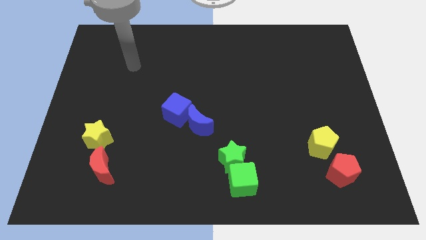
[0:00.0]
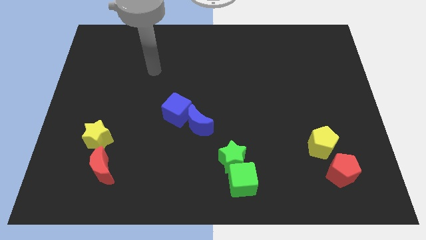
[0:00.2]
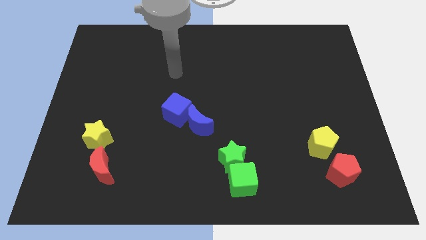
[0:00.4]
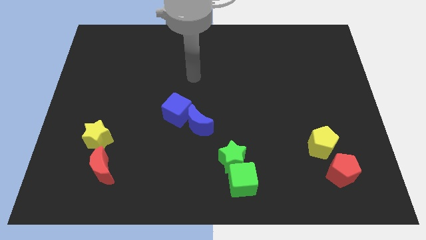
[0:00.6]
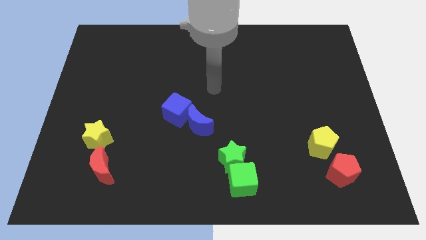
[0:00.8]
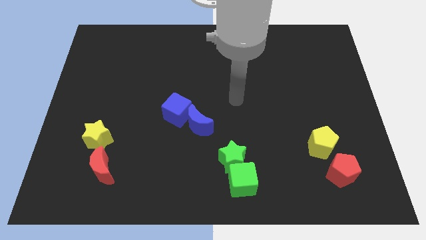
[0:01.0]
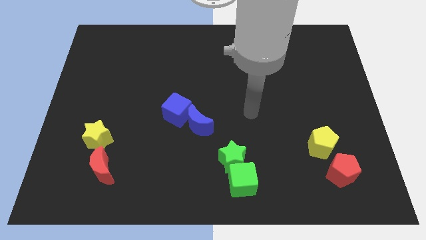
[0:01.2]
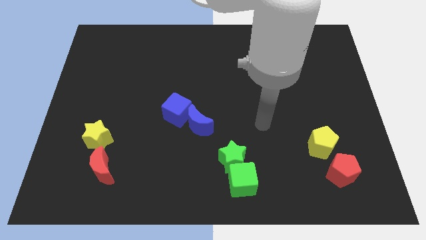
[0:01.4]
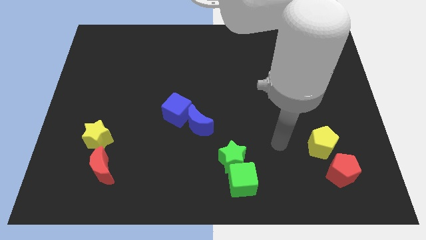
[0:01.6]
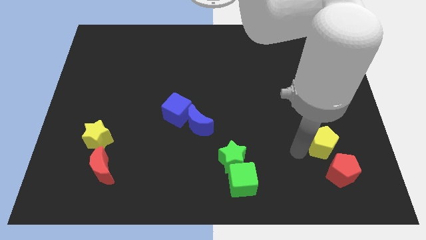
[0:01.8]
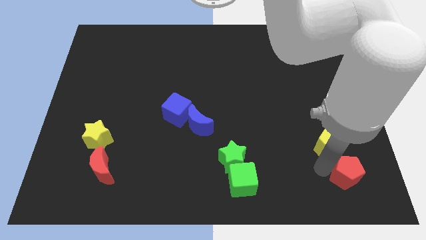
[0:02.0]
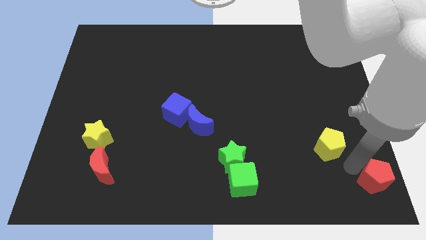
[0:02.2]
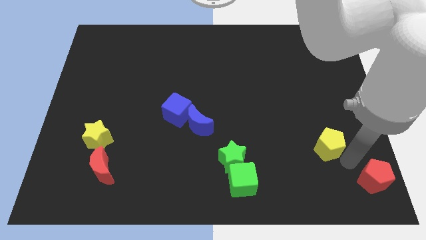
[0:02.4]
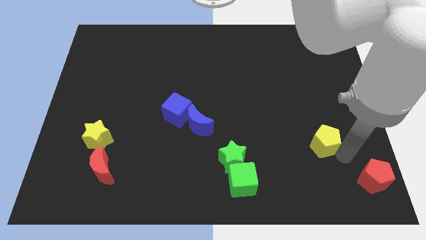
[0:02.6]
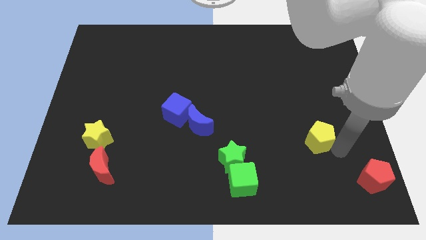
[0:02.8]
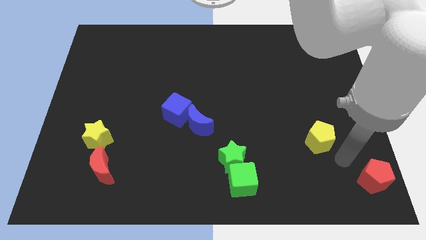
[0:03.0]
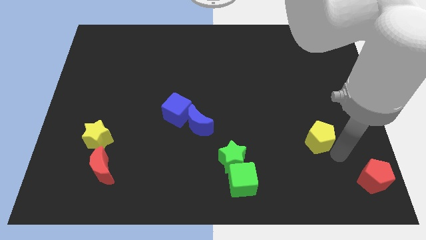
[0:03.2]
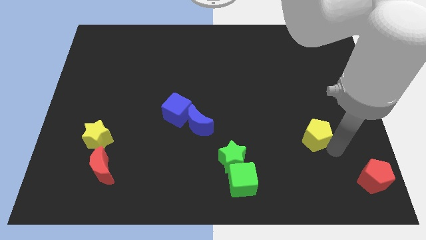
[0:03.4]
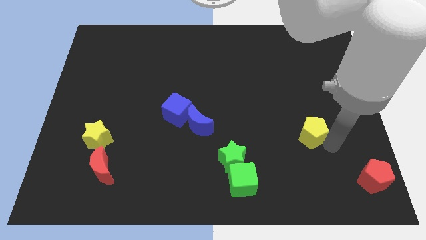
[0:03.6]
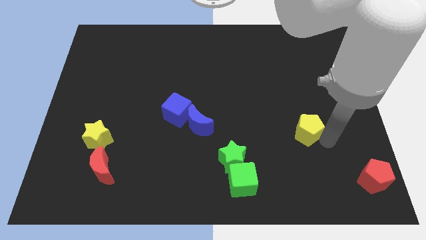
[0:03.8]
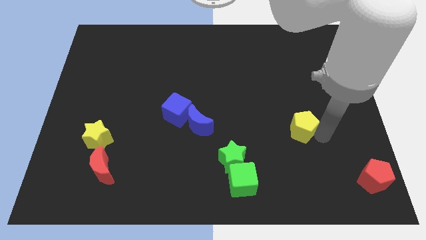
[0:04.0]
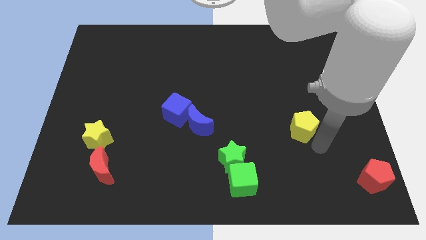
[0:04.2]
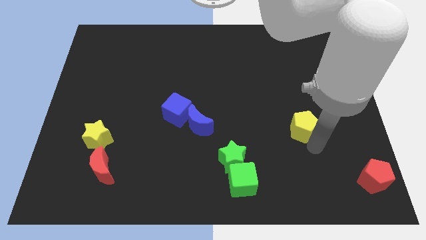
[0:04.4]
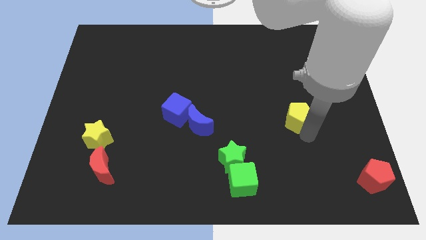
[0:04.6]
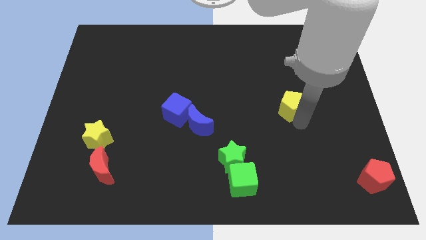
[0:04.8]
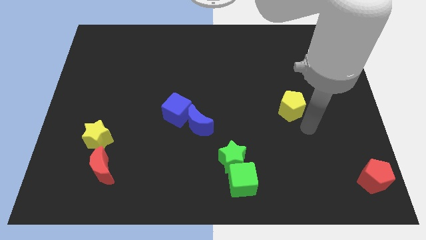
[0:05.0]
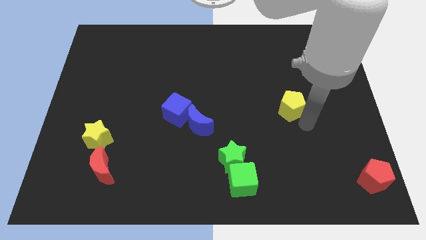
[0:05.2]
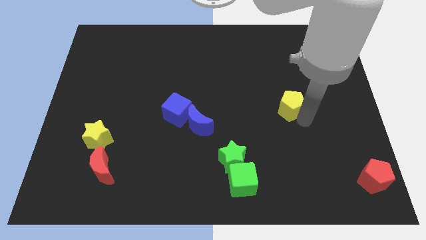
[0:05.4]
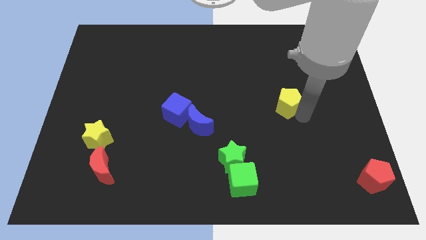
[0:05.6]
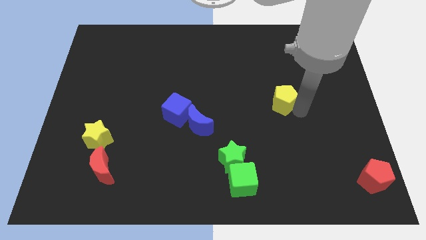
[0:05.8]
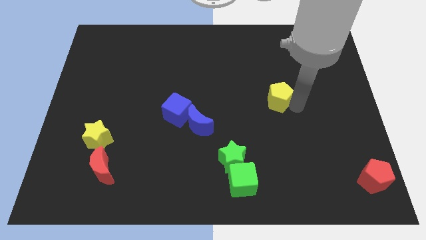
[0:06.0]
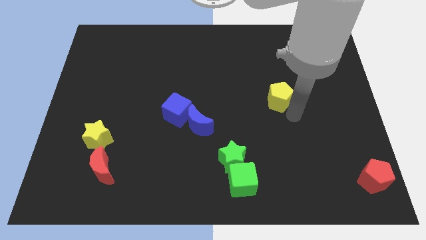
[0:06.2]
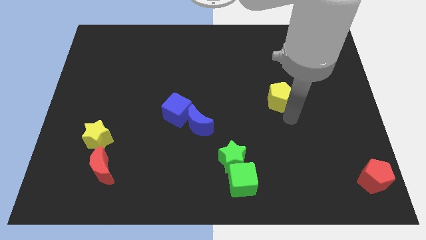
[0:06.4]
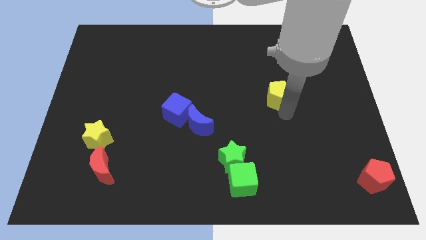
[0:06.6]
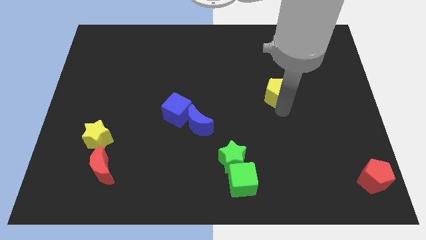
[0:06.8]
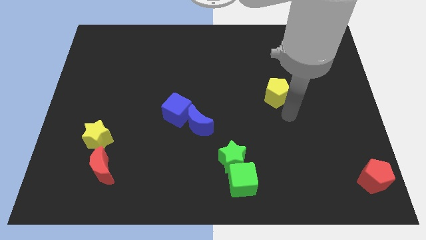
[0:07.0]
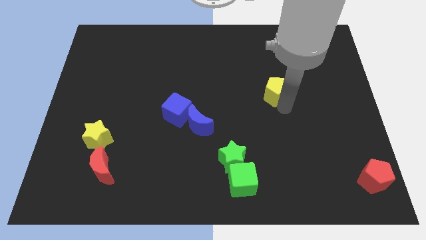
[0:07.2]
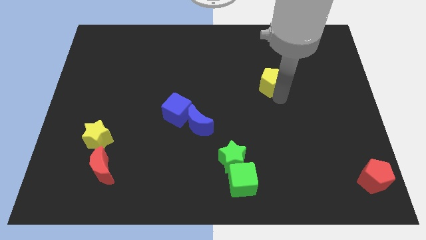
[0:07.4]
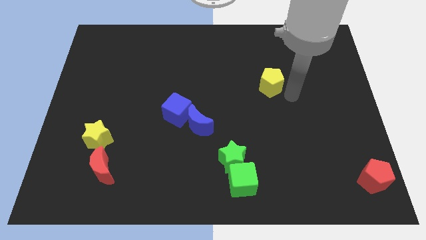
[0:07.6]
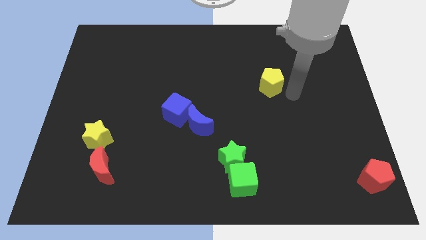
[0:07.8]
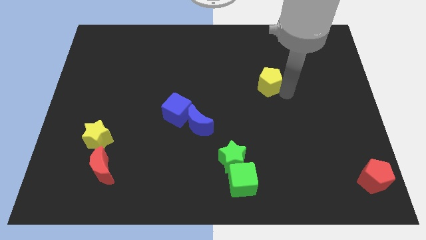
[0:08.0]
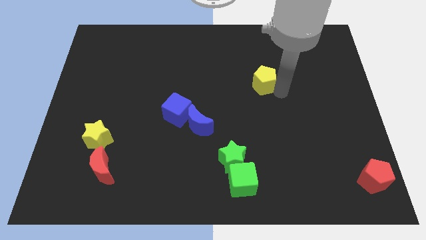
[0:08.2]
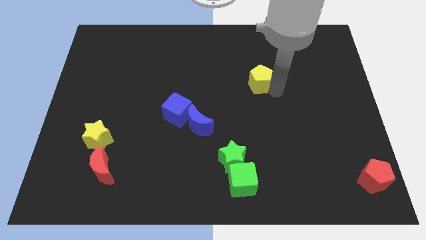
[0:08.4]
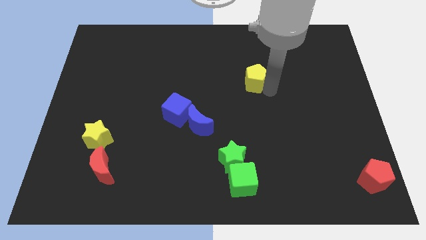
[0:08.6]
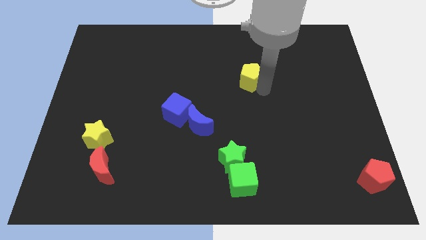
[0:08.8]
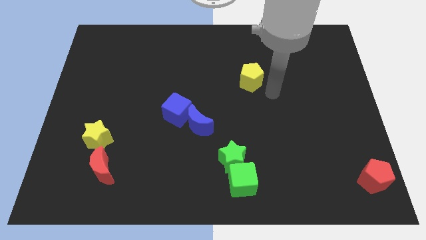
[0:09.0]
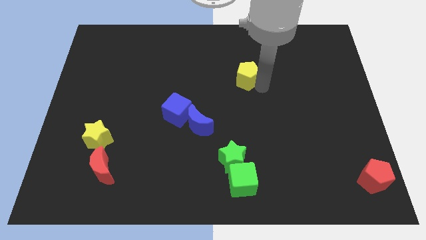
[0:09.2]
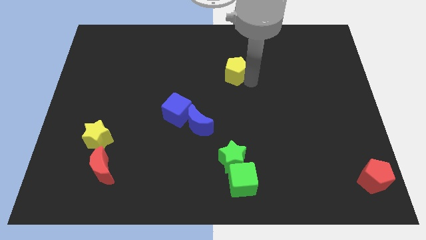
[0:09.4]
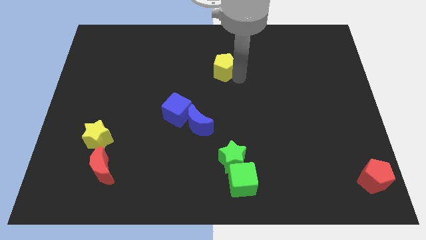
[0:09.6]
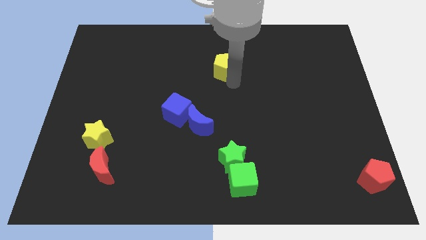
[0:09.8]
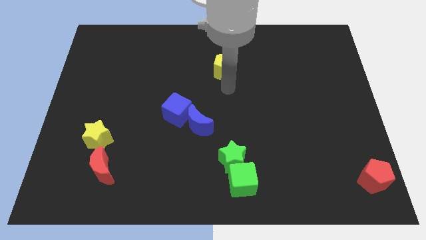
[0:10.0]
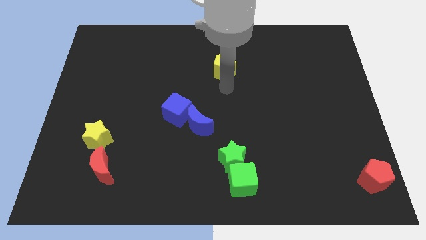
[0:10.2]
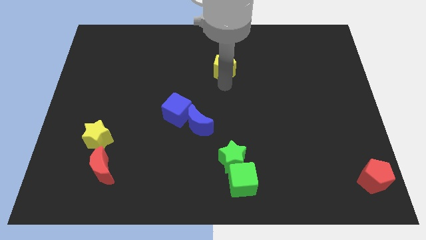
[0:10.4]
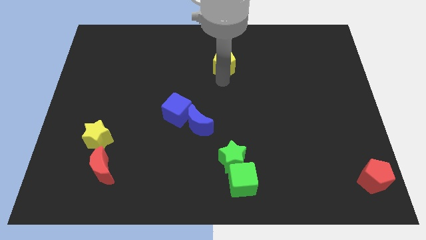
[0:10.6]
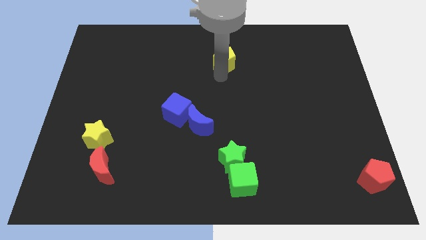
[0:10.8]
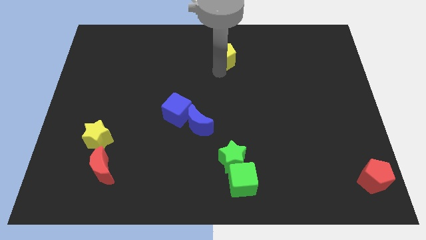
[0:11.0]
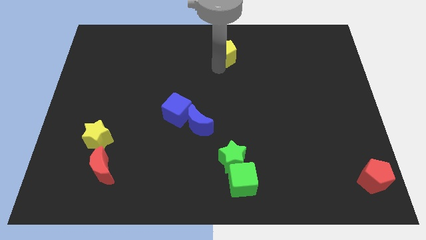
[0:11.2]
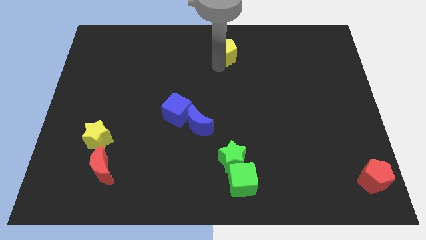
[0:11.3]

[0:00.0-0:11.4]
put the yellow pentagon to the top side

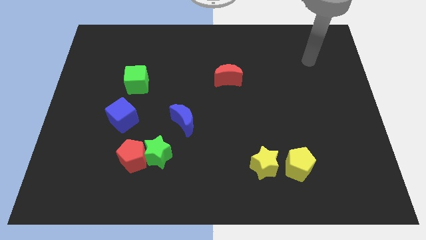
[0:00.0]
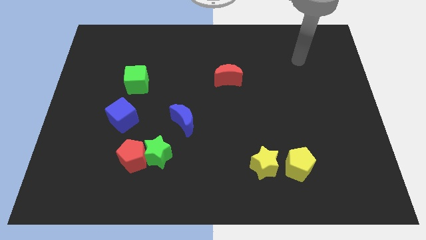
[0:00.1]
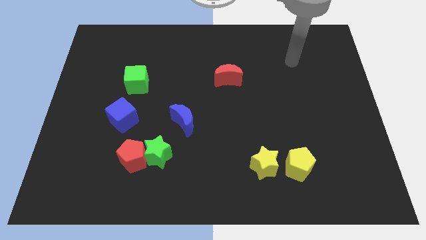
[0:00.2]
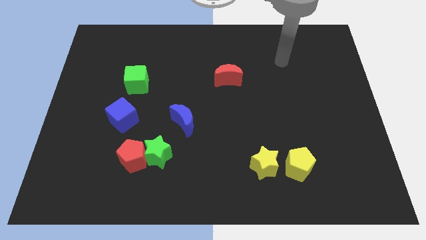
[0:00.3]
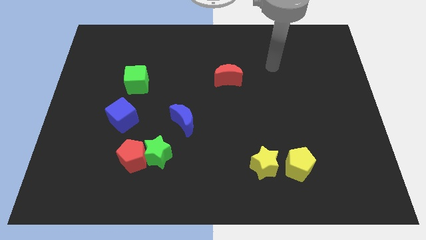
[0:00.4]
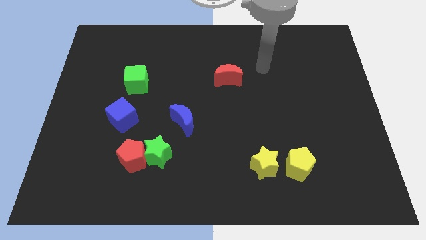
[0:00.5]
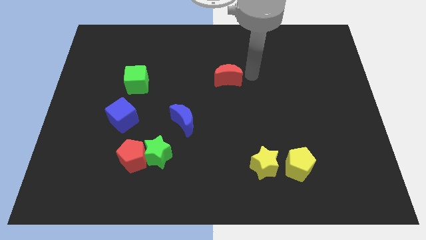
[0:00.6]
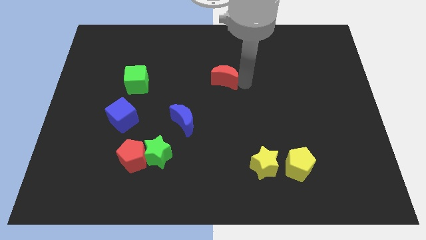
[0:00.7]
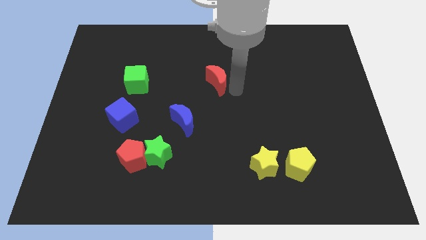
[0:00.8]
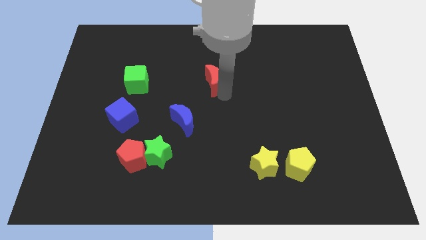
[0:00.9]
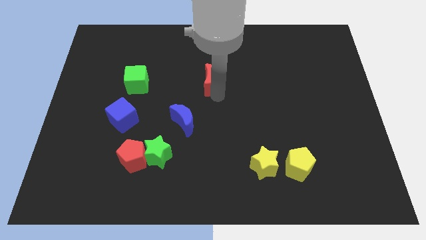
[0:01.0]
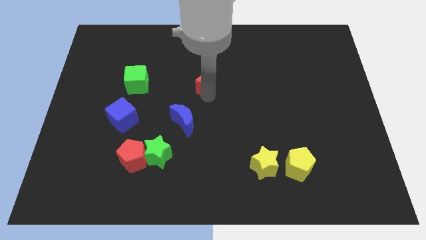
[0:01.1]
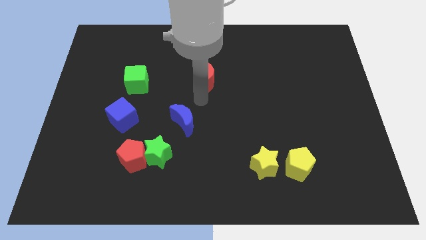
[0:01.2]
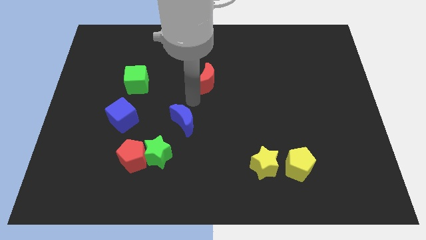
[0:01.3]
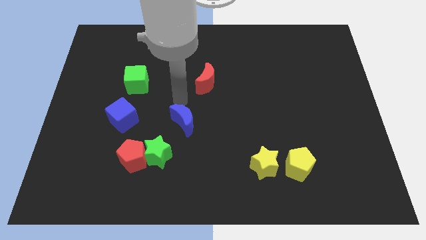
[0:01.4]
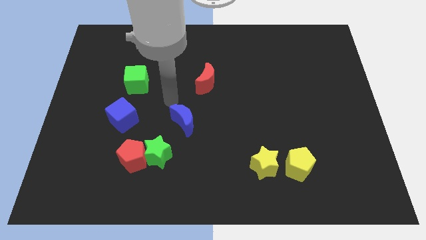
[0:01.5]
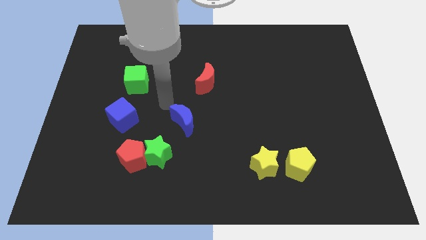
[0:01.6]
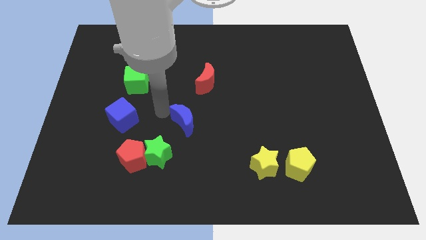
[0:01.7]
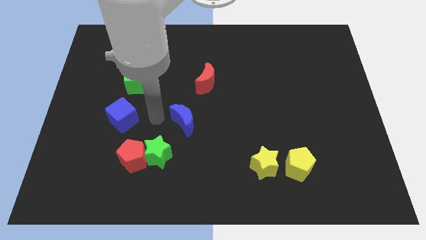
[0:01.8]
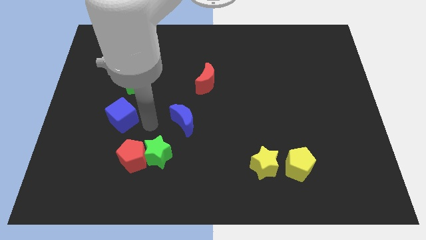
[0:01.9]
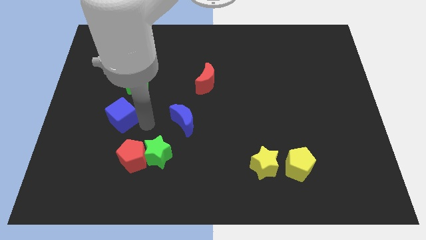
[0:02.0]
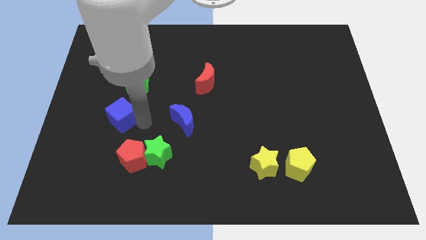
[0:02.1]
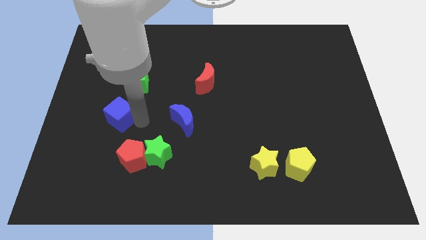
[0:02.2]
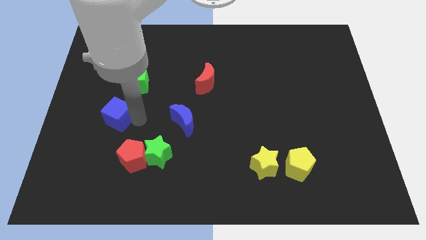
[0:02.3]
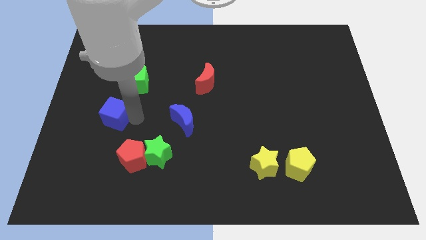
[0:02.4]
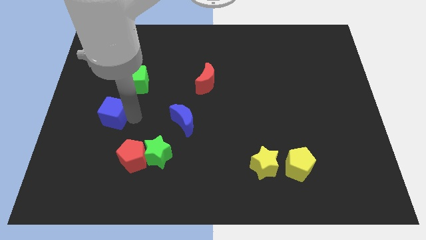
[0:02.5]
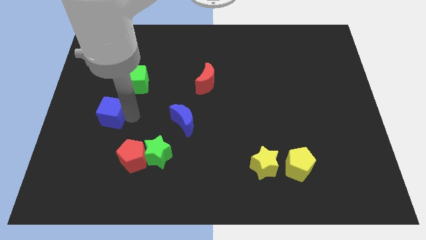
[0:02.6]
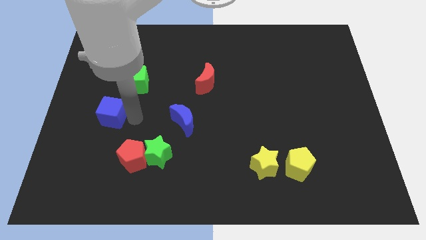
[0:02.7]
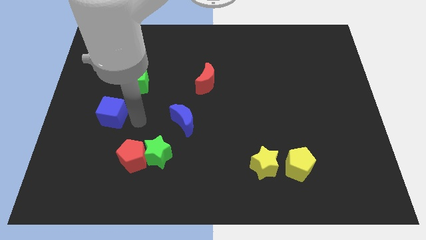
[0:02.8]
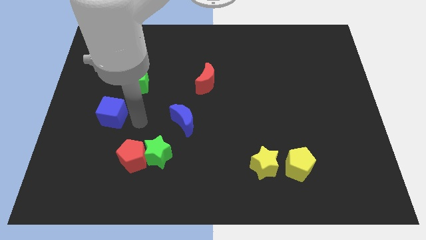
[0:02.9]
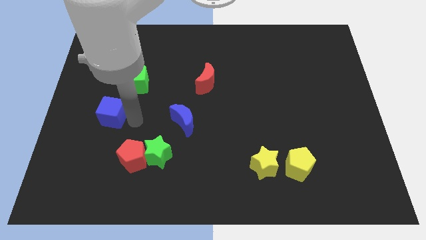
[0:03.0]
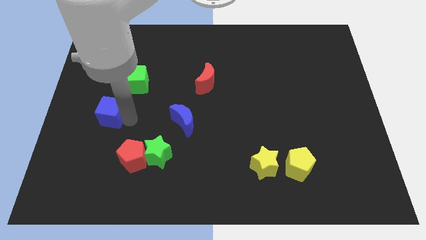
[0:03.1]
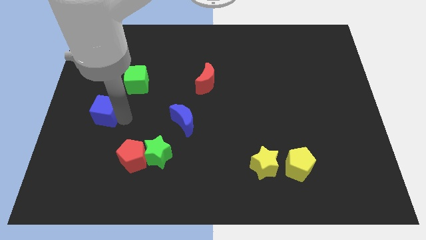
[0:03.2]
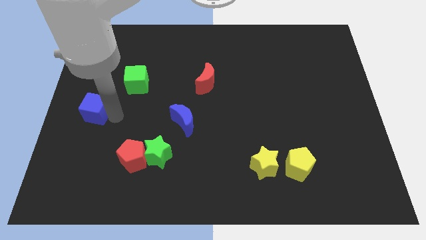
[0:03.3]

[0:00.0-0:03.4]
push the blue cube to the left side
